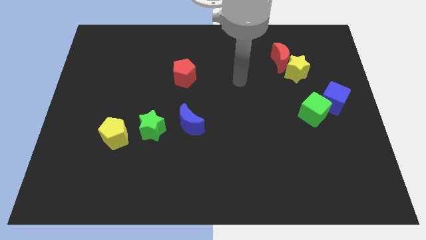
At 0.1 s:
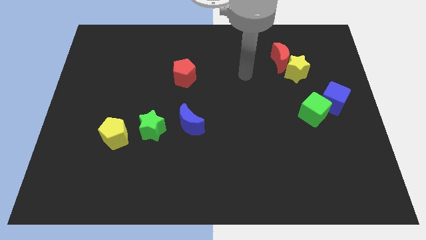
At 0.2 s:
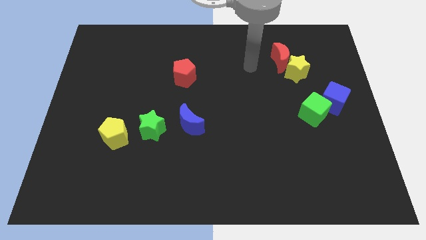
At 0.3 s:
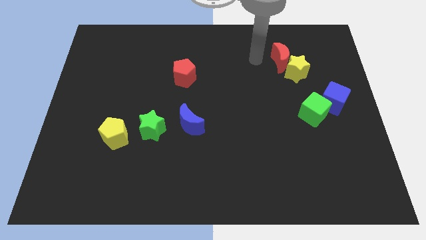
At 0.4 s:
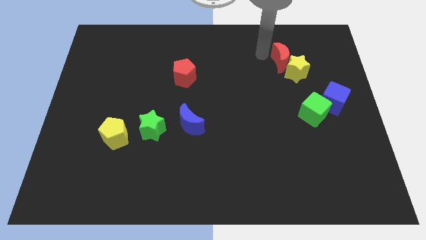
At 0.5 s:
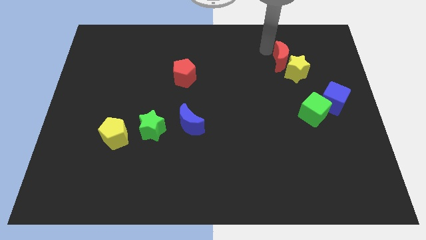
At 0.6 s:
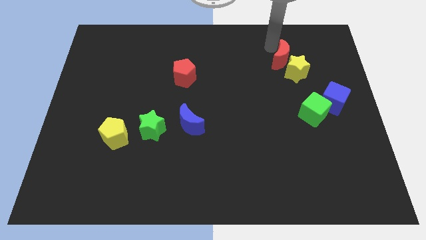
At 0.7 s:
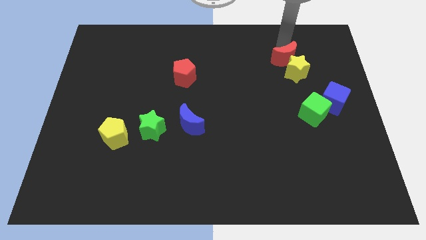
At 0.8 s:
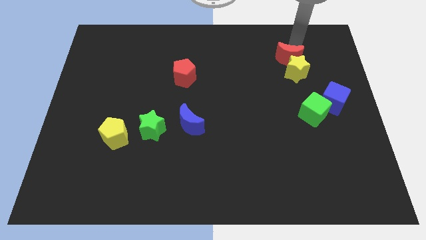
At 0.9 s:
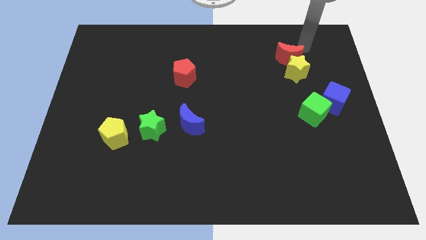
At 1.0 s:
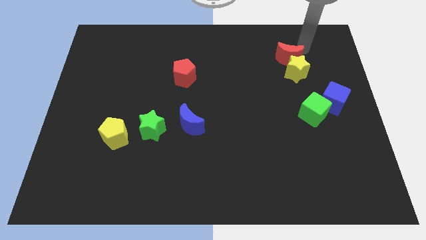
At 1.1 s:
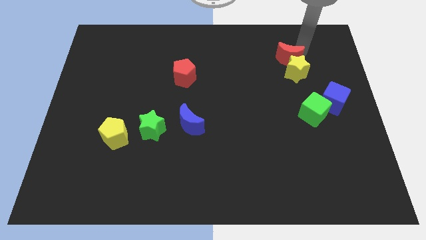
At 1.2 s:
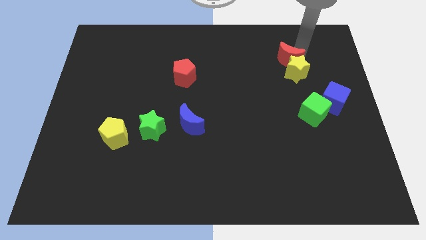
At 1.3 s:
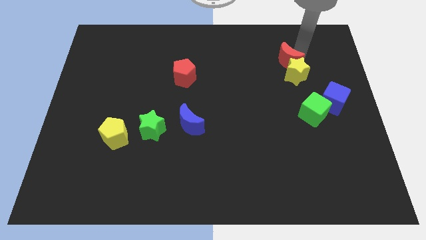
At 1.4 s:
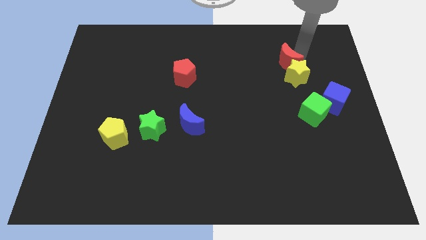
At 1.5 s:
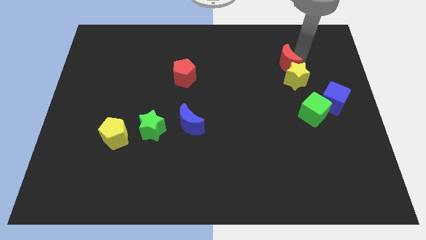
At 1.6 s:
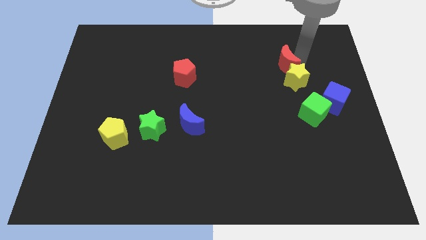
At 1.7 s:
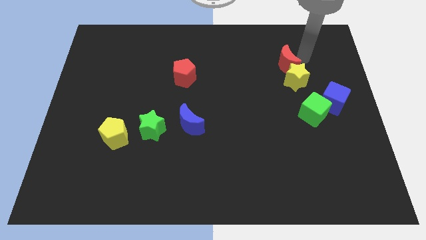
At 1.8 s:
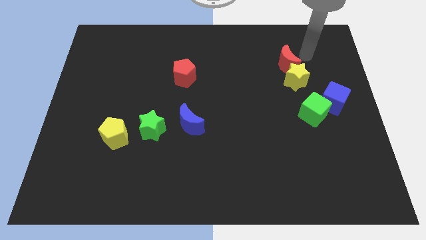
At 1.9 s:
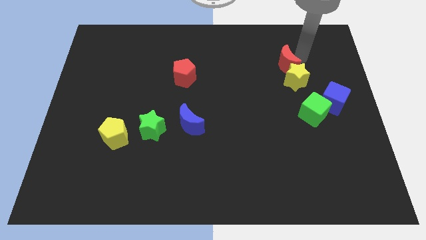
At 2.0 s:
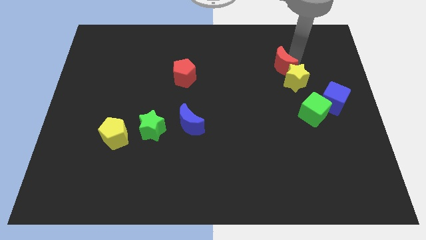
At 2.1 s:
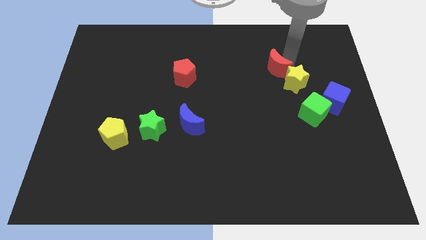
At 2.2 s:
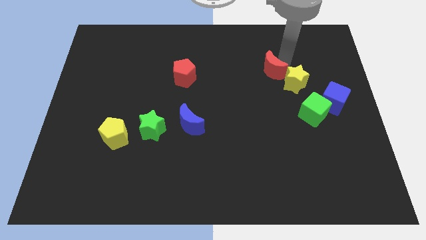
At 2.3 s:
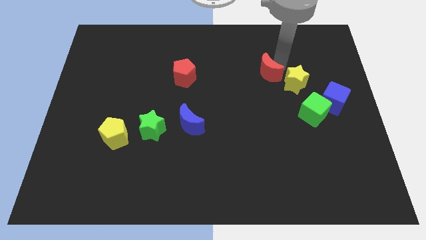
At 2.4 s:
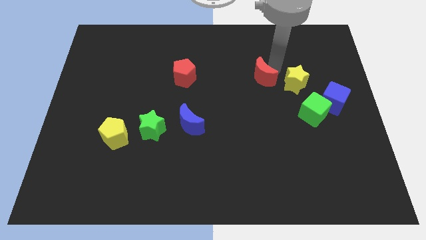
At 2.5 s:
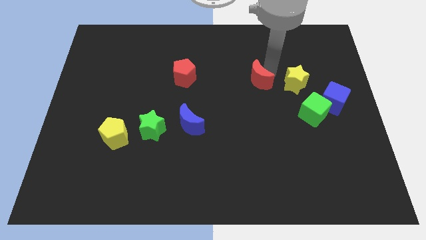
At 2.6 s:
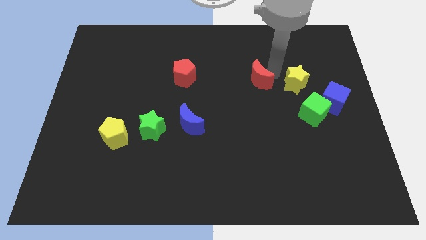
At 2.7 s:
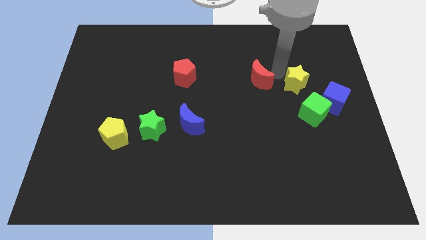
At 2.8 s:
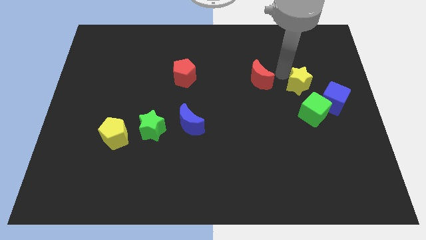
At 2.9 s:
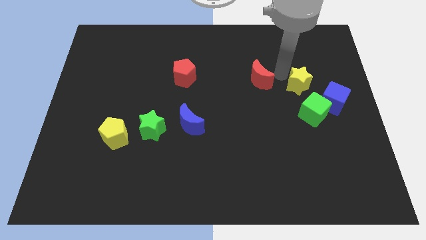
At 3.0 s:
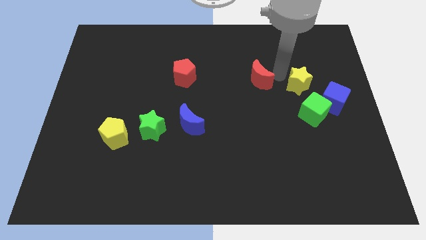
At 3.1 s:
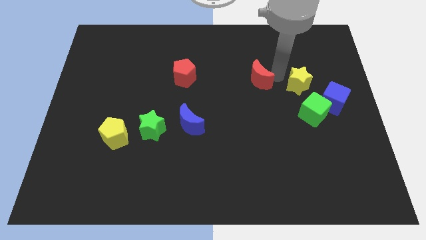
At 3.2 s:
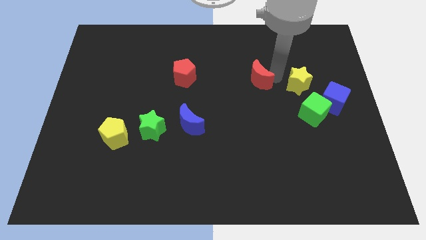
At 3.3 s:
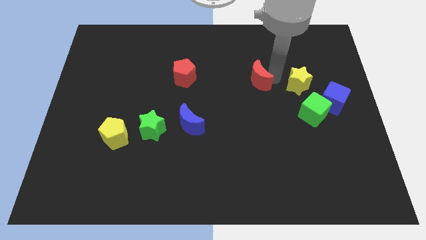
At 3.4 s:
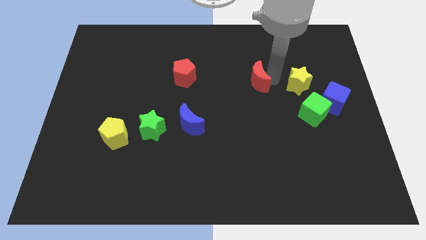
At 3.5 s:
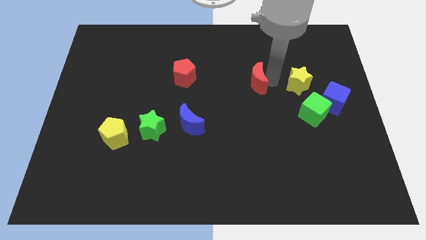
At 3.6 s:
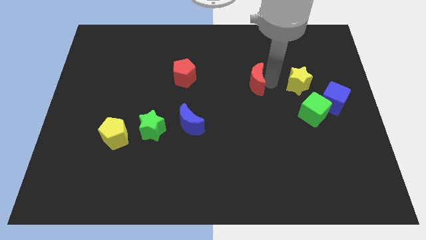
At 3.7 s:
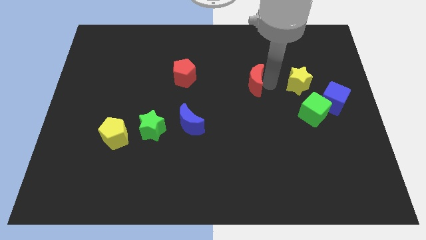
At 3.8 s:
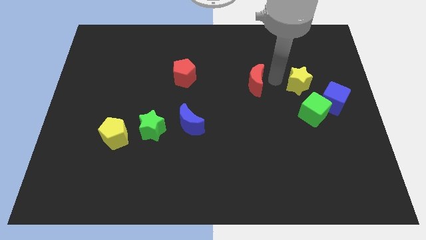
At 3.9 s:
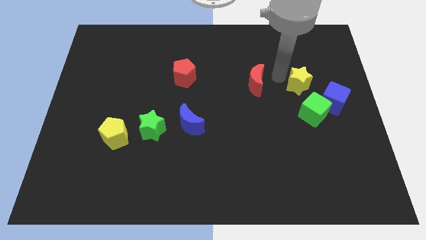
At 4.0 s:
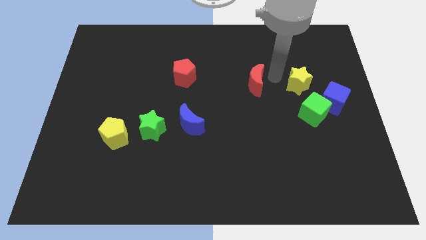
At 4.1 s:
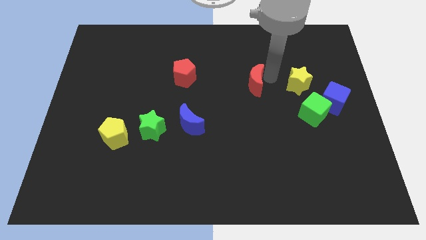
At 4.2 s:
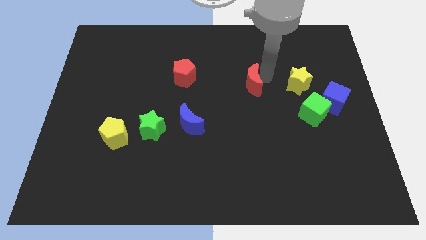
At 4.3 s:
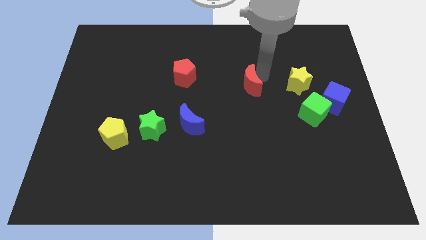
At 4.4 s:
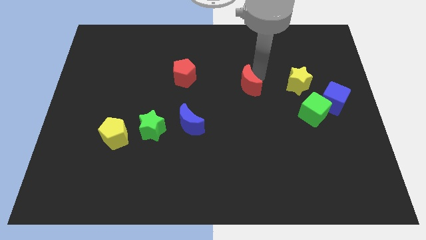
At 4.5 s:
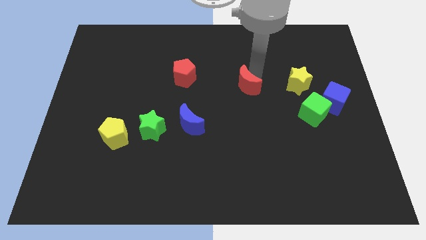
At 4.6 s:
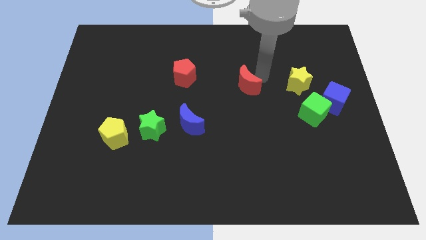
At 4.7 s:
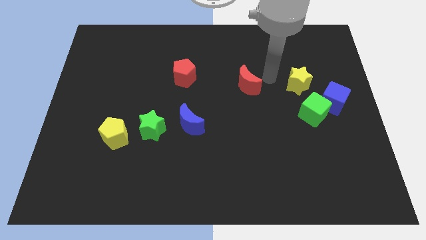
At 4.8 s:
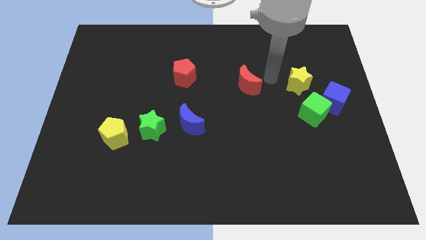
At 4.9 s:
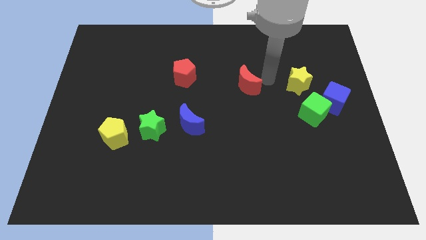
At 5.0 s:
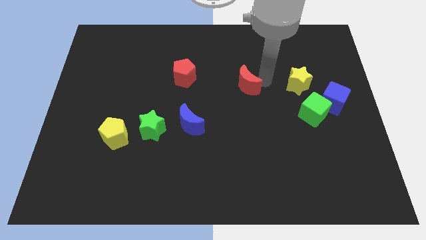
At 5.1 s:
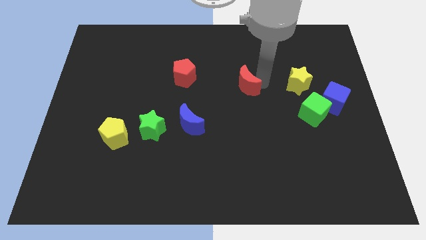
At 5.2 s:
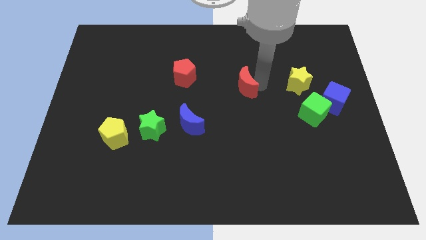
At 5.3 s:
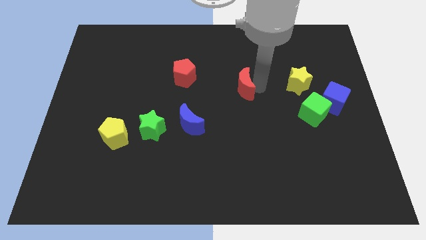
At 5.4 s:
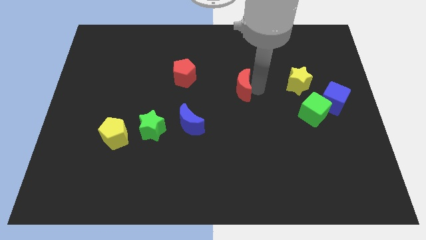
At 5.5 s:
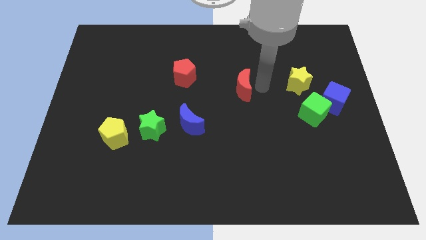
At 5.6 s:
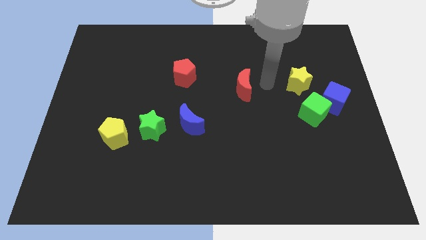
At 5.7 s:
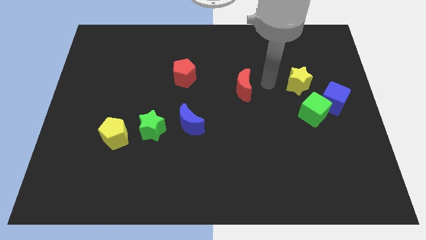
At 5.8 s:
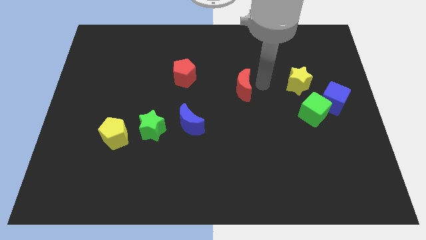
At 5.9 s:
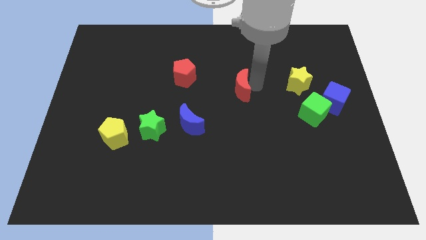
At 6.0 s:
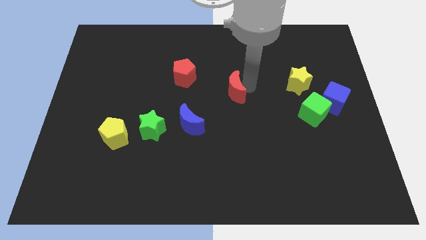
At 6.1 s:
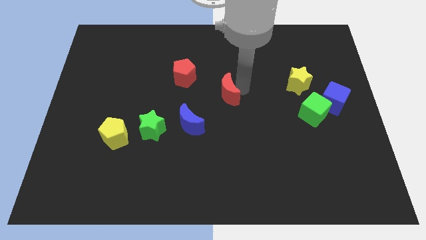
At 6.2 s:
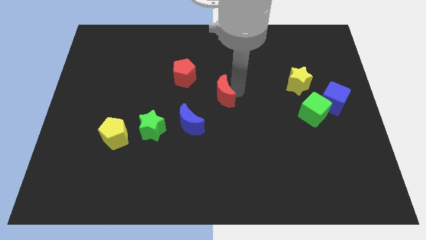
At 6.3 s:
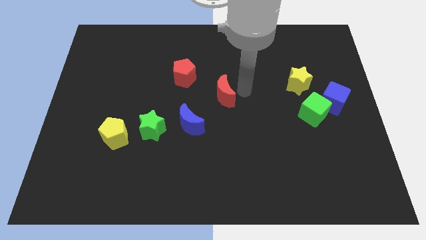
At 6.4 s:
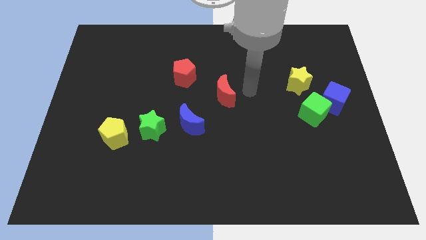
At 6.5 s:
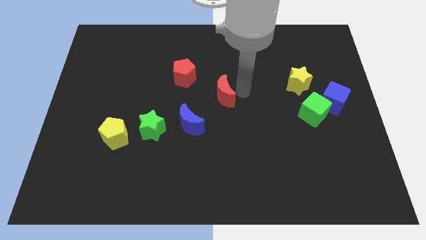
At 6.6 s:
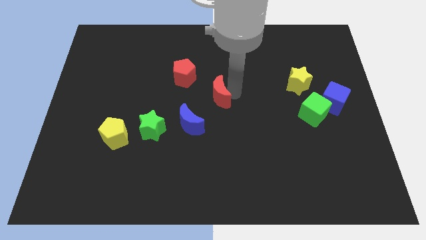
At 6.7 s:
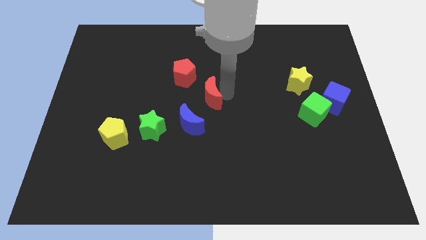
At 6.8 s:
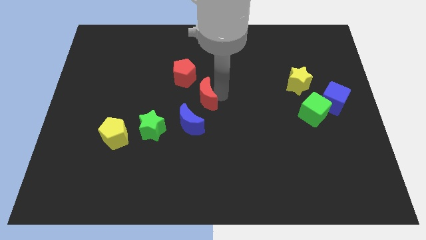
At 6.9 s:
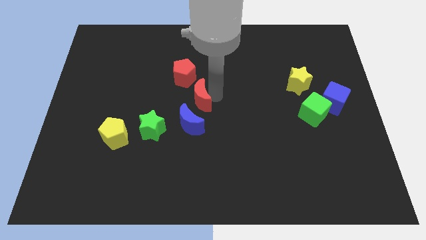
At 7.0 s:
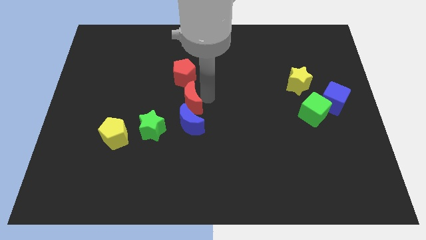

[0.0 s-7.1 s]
slide the red moon to the top left of the blue moon

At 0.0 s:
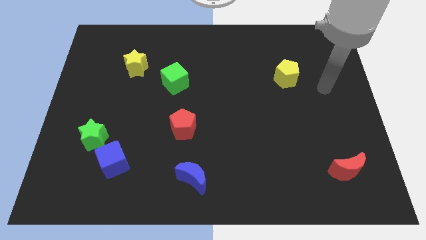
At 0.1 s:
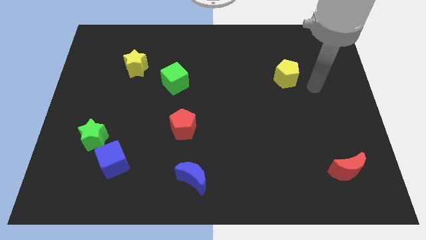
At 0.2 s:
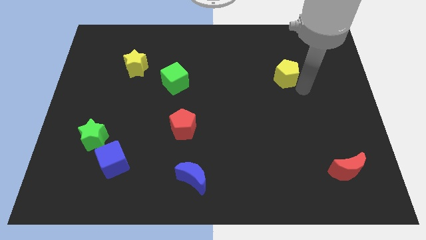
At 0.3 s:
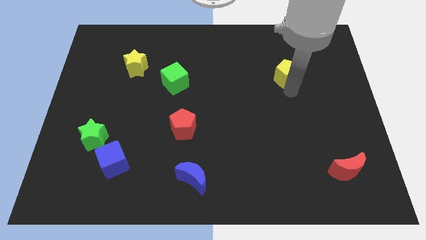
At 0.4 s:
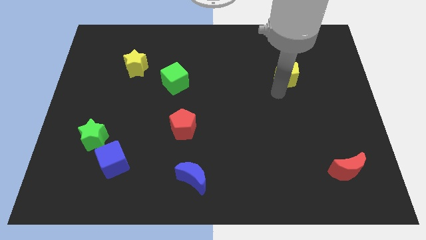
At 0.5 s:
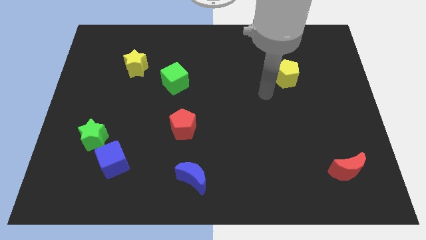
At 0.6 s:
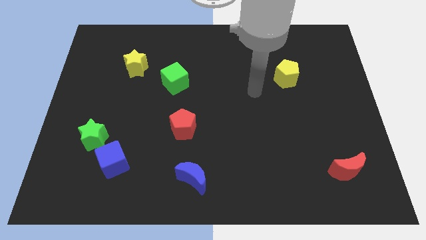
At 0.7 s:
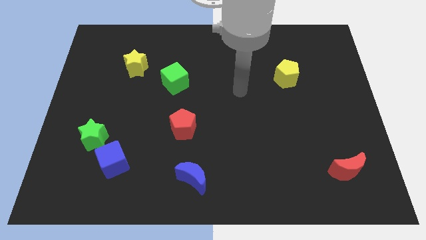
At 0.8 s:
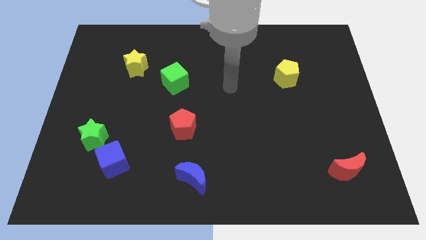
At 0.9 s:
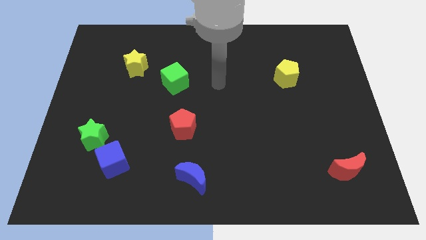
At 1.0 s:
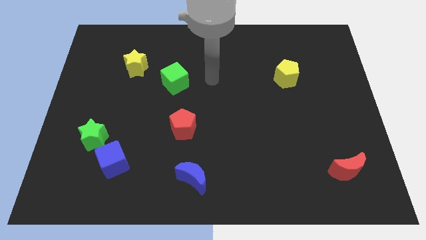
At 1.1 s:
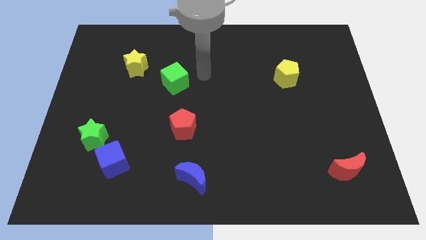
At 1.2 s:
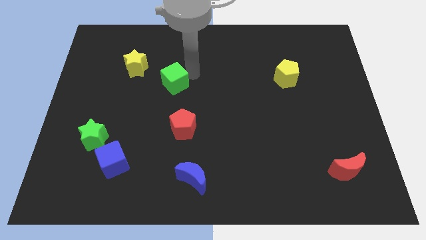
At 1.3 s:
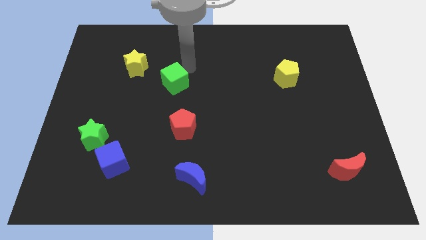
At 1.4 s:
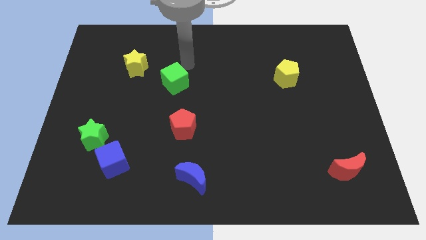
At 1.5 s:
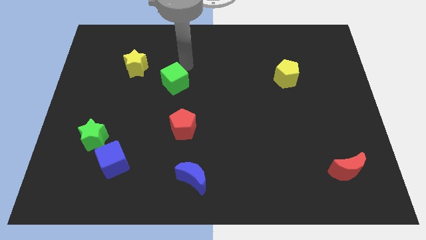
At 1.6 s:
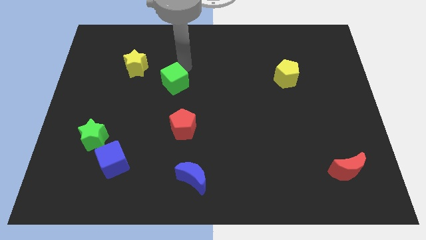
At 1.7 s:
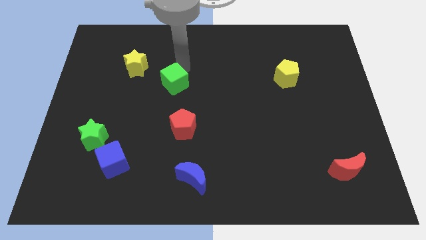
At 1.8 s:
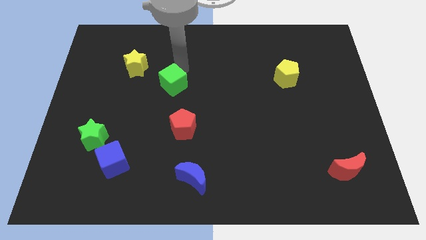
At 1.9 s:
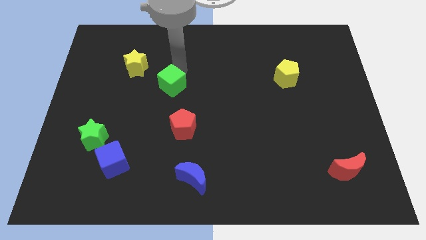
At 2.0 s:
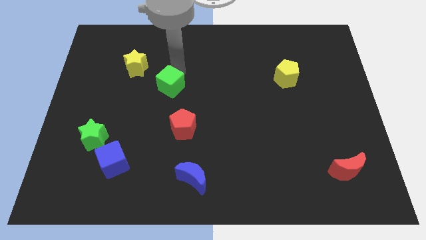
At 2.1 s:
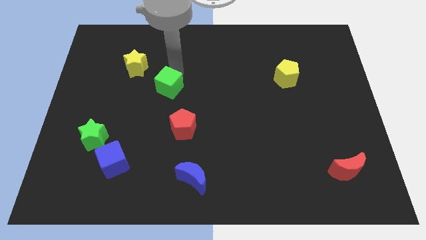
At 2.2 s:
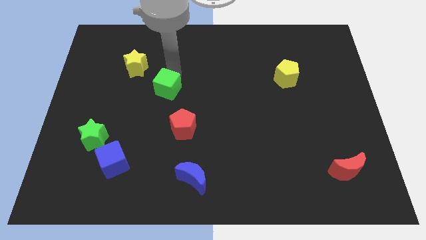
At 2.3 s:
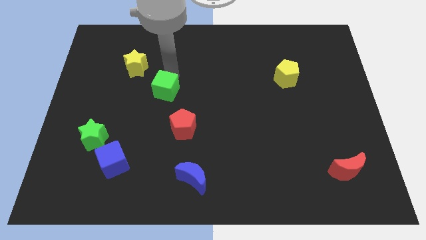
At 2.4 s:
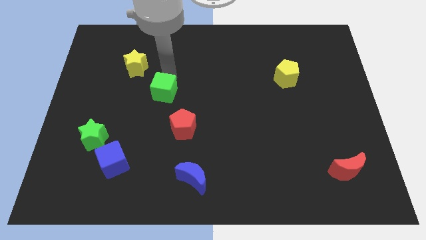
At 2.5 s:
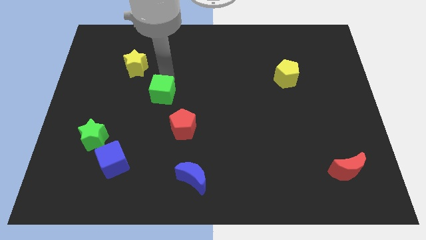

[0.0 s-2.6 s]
move the green cube to the top left of the red pentagon
